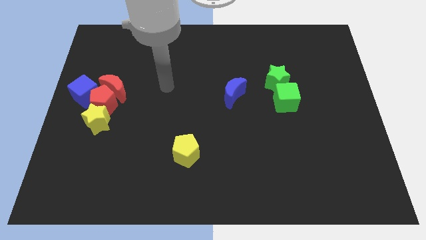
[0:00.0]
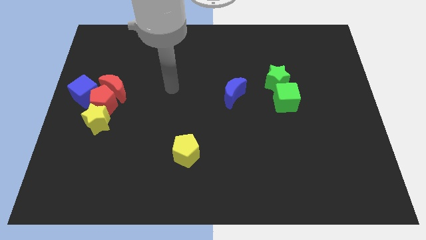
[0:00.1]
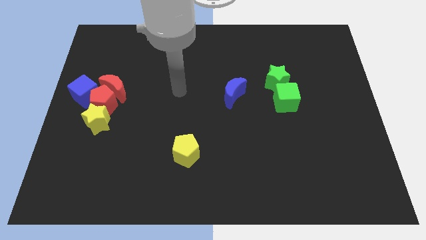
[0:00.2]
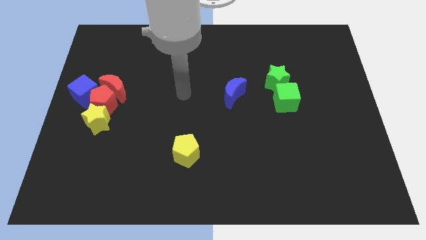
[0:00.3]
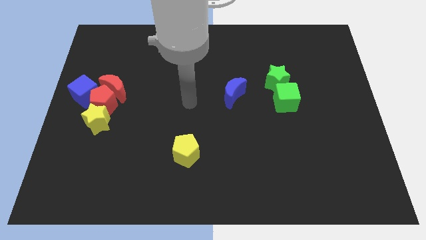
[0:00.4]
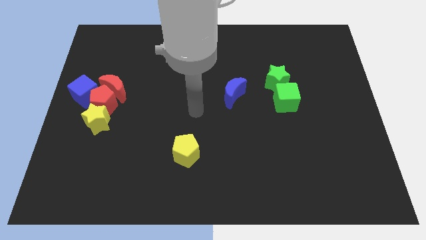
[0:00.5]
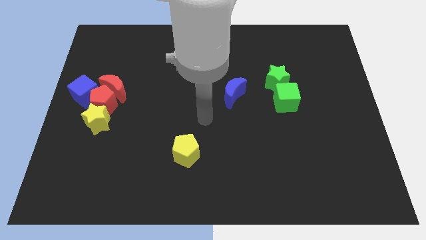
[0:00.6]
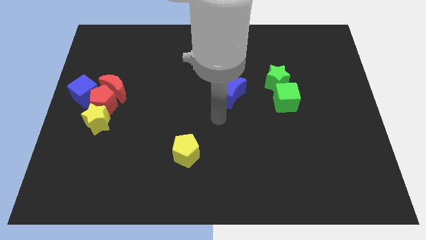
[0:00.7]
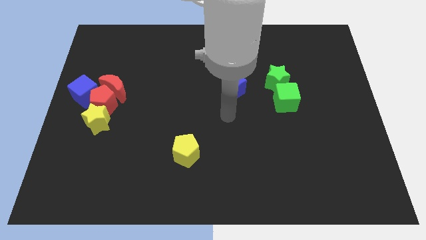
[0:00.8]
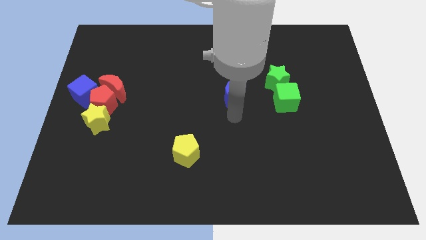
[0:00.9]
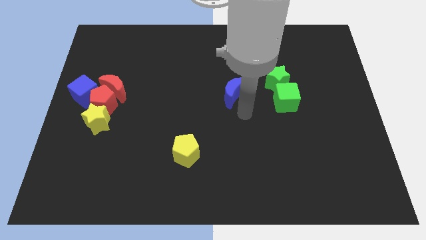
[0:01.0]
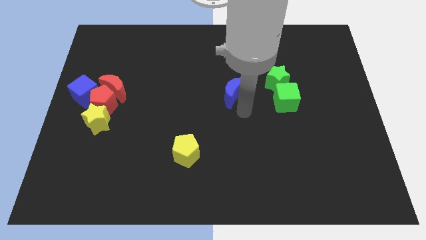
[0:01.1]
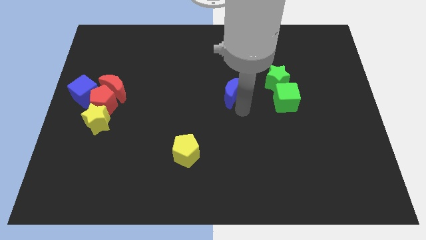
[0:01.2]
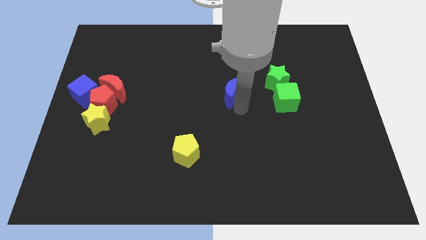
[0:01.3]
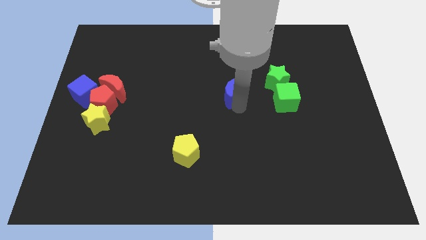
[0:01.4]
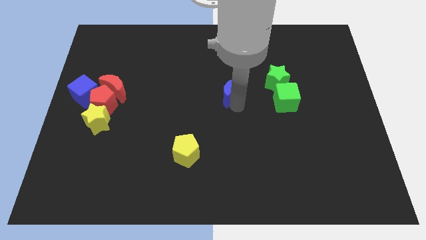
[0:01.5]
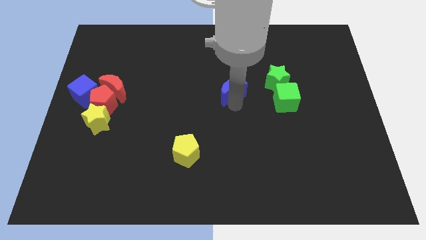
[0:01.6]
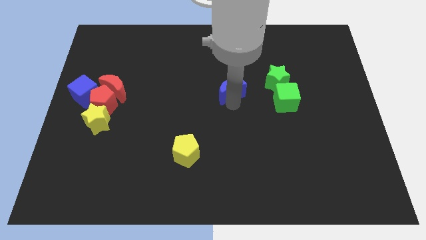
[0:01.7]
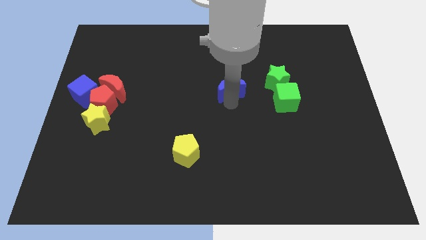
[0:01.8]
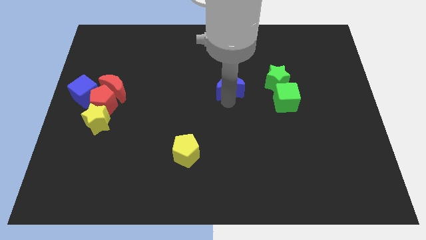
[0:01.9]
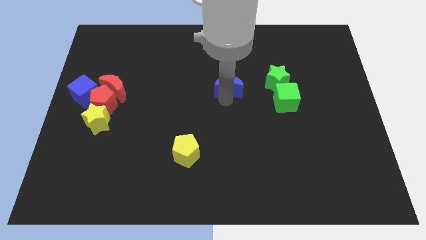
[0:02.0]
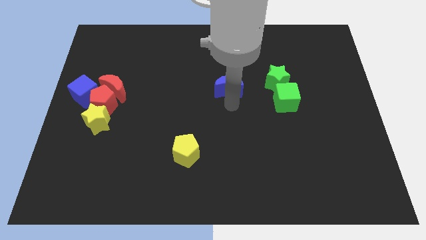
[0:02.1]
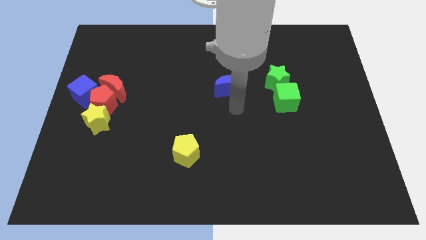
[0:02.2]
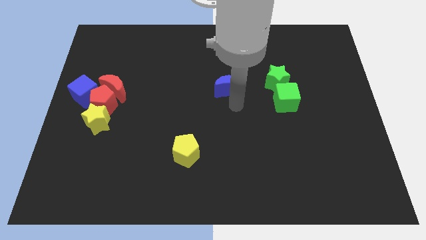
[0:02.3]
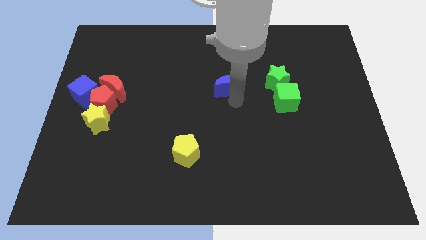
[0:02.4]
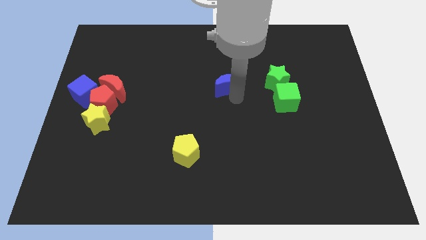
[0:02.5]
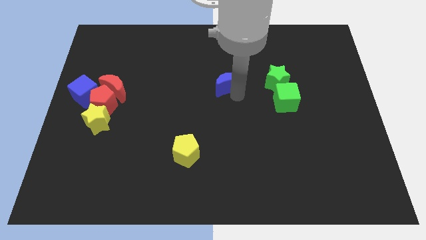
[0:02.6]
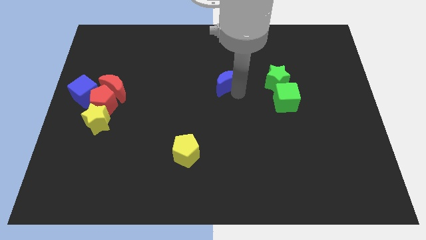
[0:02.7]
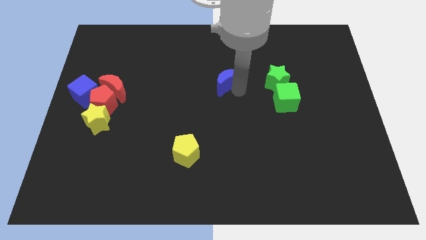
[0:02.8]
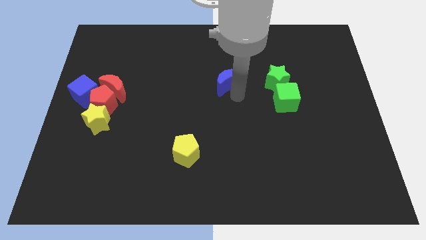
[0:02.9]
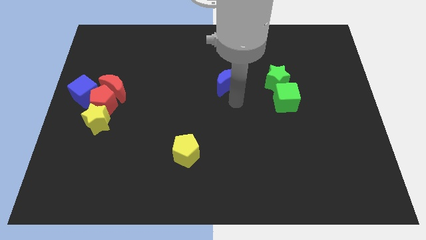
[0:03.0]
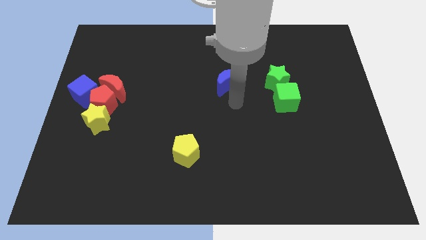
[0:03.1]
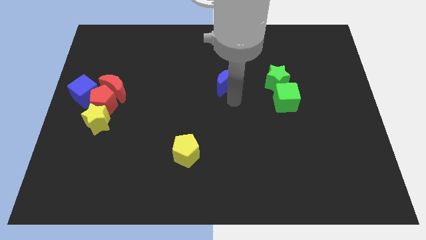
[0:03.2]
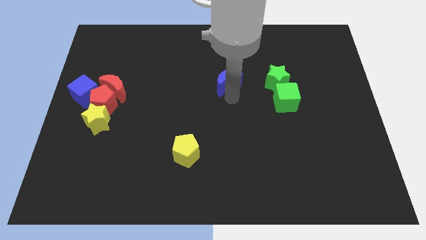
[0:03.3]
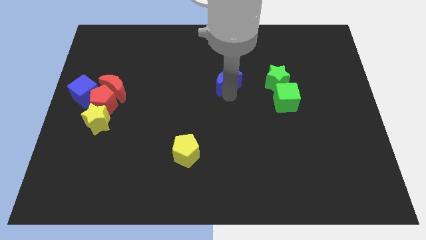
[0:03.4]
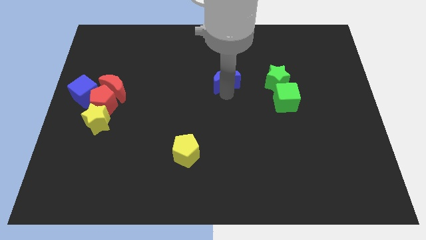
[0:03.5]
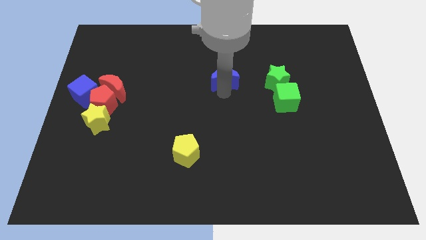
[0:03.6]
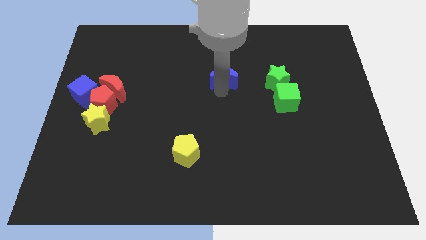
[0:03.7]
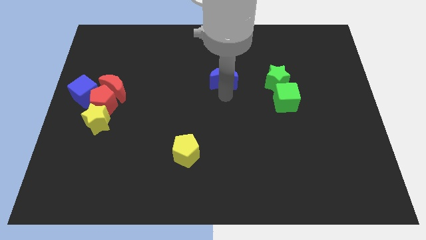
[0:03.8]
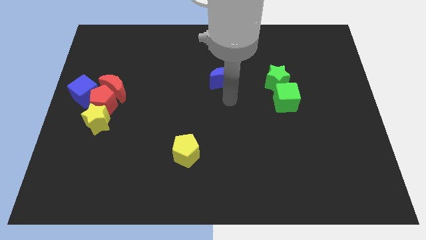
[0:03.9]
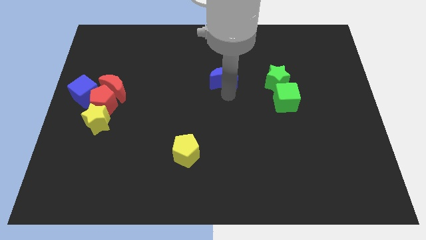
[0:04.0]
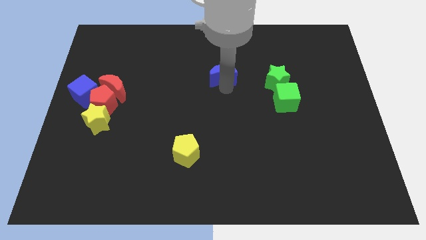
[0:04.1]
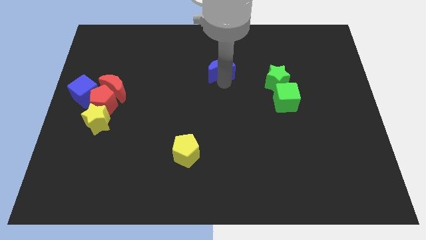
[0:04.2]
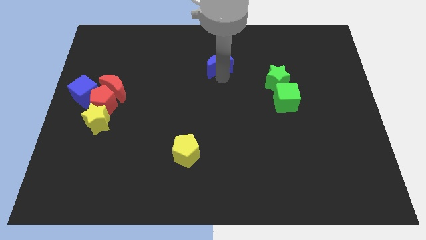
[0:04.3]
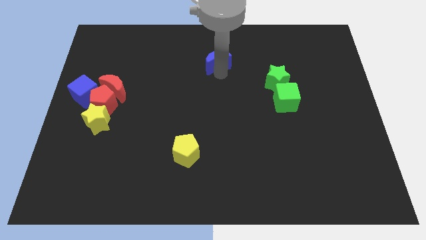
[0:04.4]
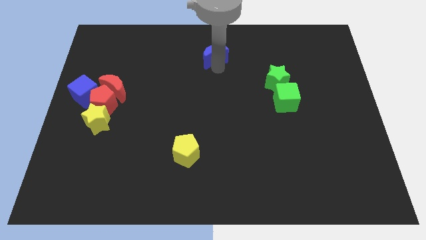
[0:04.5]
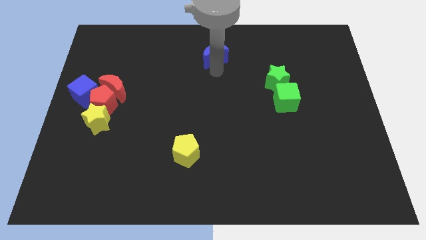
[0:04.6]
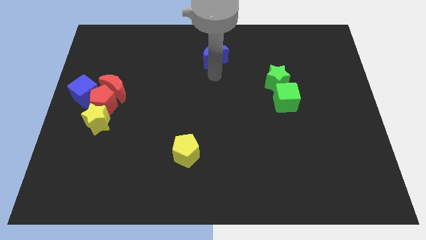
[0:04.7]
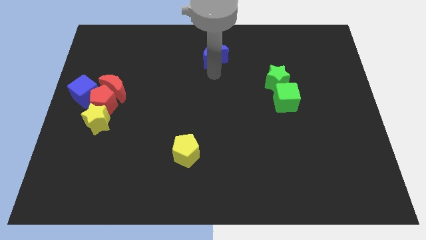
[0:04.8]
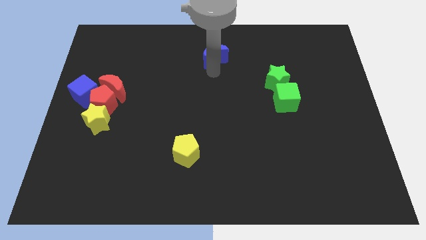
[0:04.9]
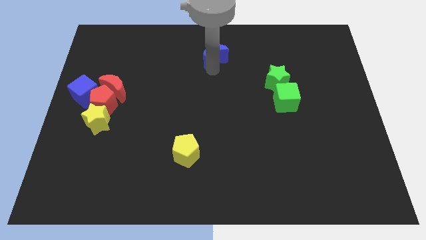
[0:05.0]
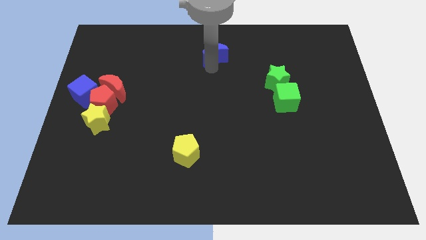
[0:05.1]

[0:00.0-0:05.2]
slide the blue moon to the top
